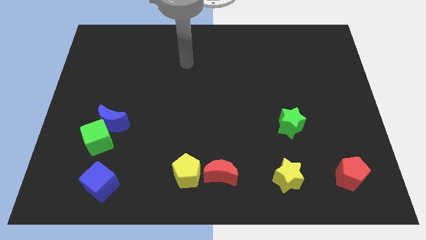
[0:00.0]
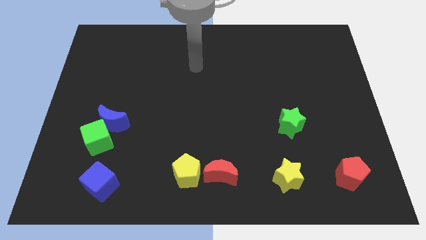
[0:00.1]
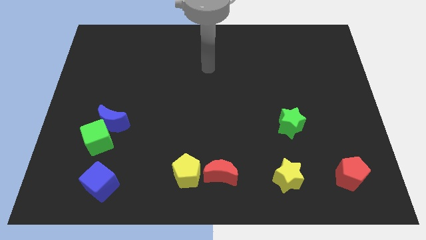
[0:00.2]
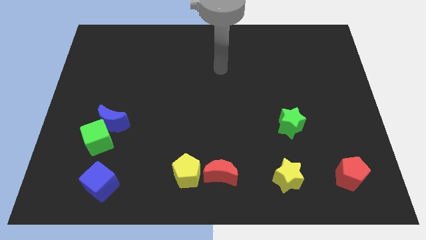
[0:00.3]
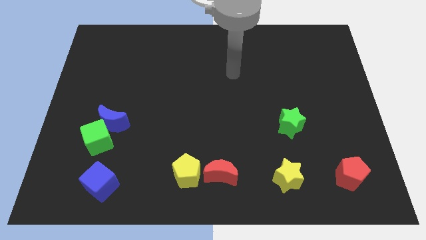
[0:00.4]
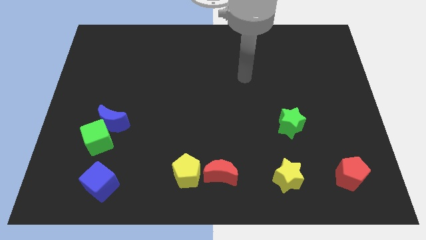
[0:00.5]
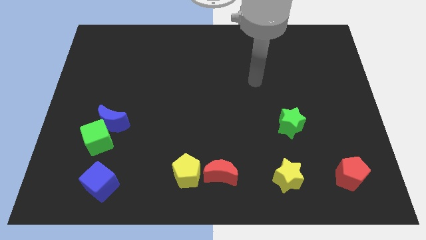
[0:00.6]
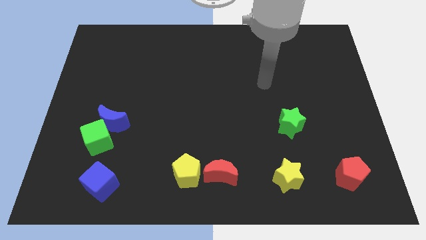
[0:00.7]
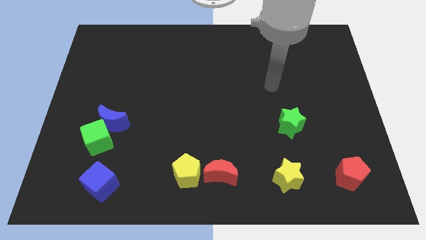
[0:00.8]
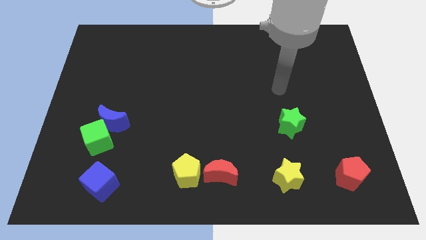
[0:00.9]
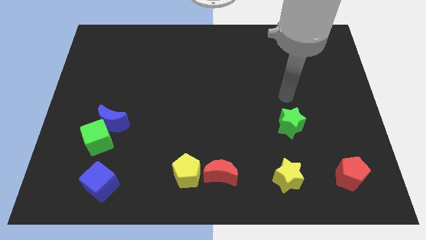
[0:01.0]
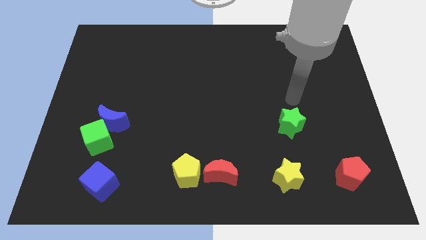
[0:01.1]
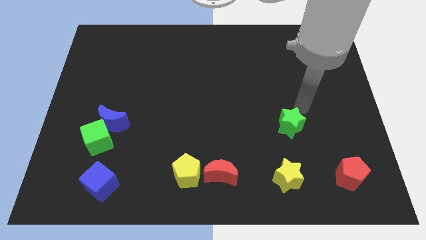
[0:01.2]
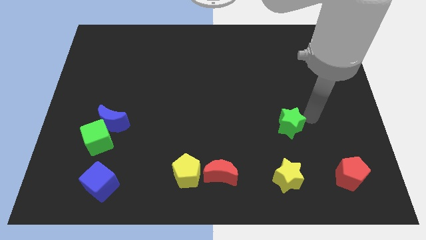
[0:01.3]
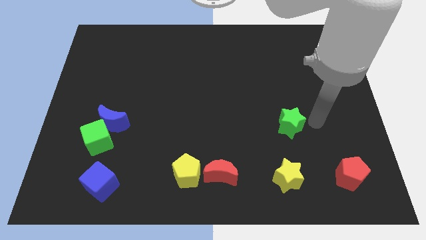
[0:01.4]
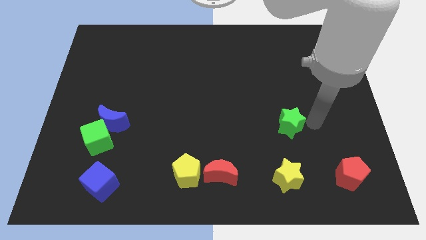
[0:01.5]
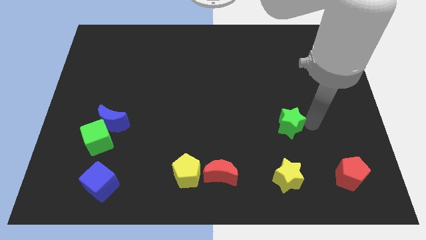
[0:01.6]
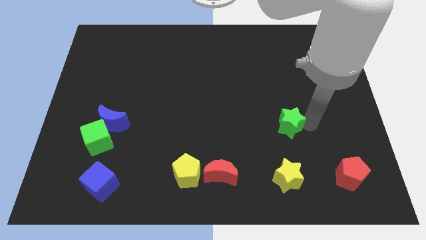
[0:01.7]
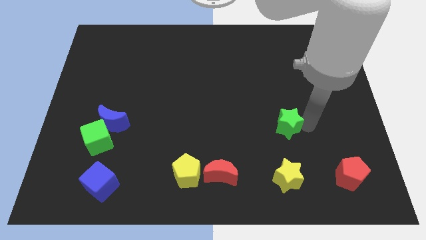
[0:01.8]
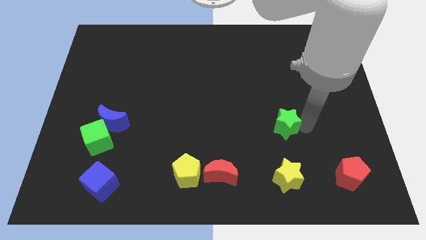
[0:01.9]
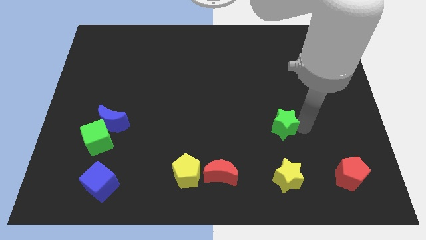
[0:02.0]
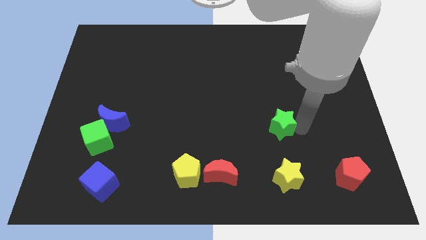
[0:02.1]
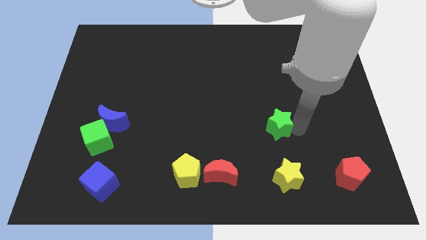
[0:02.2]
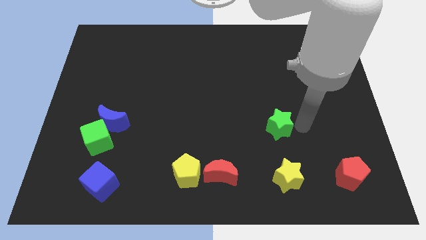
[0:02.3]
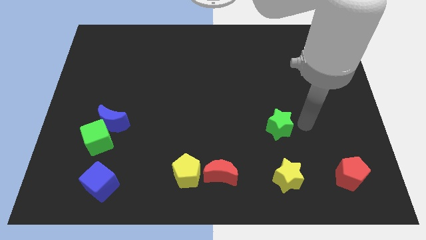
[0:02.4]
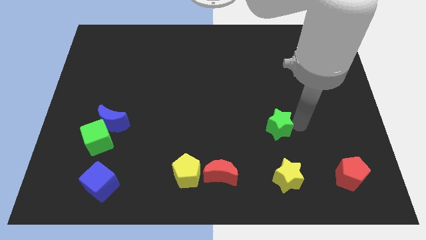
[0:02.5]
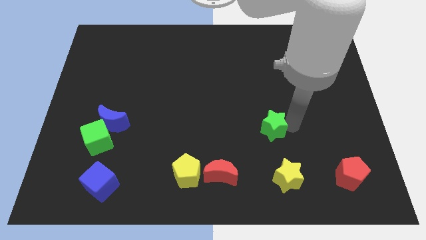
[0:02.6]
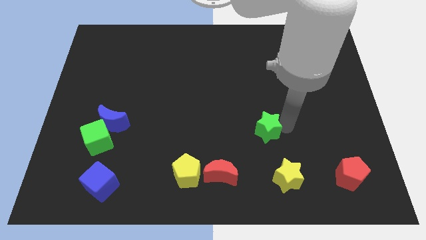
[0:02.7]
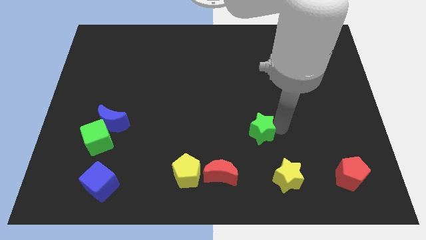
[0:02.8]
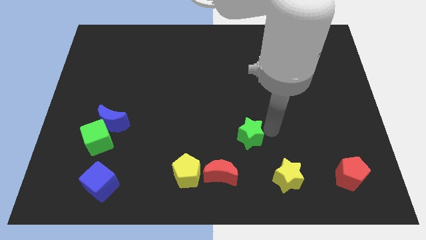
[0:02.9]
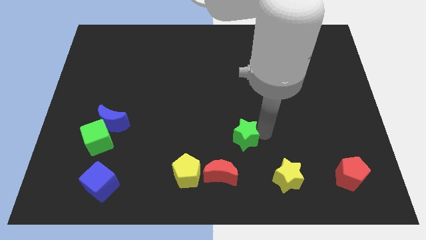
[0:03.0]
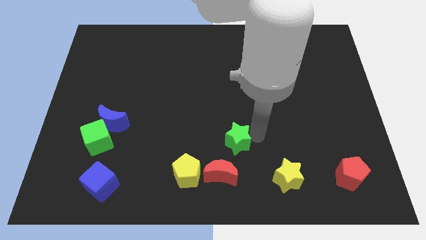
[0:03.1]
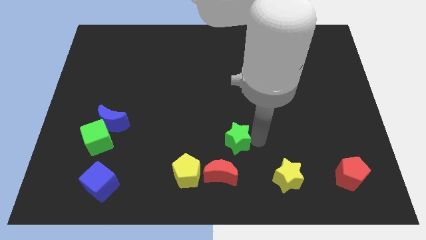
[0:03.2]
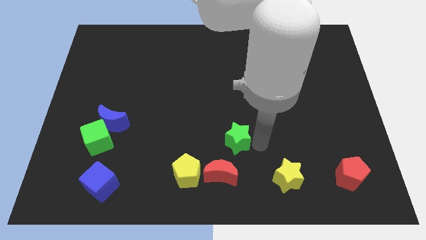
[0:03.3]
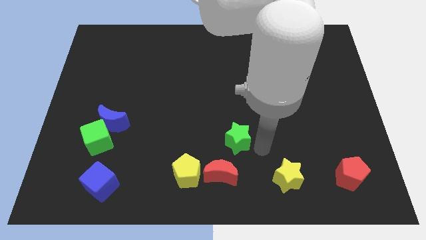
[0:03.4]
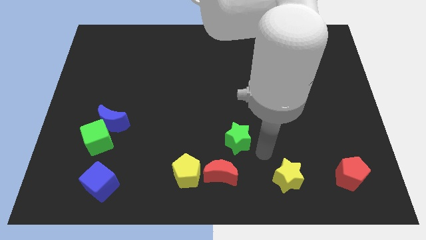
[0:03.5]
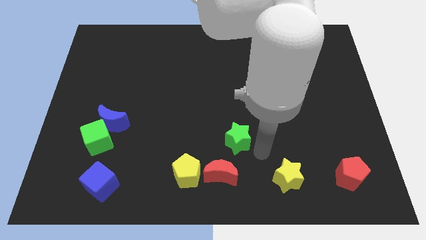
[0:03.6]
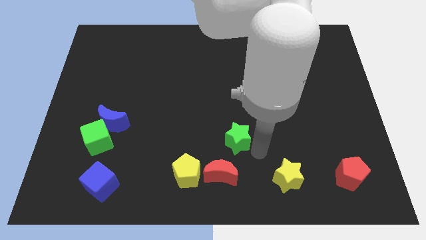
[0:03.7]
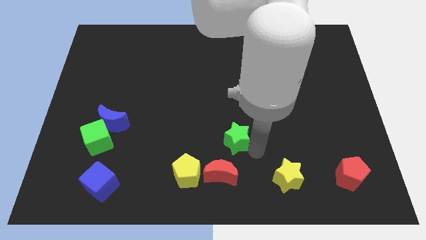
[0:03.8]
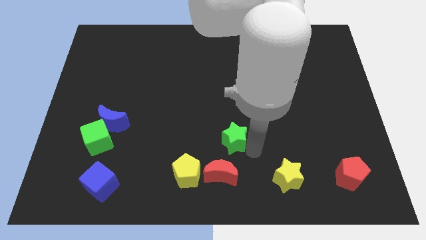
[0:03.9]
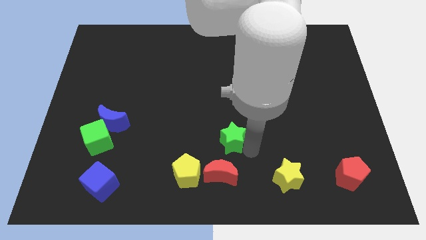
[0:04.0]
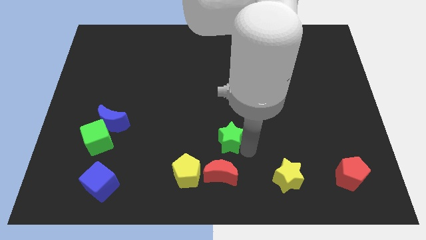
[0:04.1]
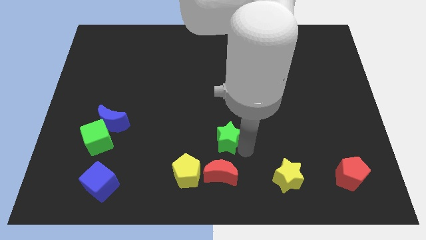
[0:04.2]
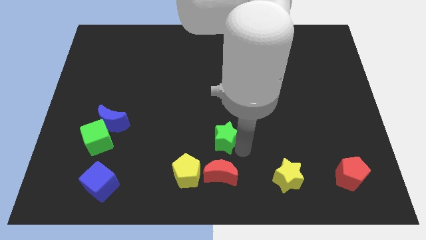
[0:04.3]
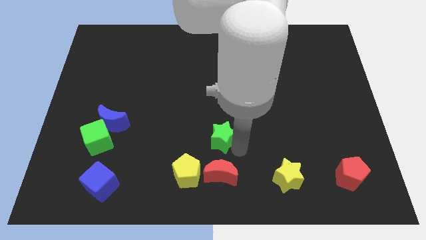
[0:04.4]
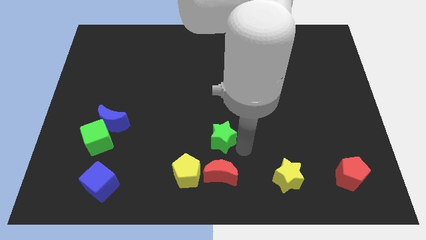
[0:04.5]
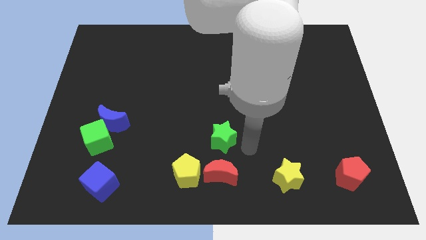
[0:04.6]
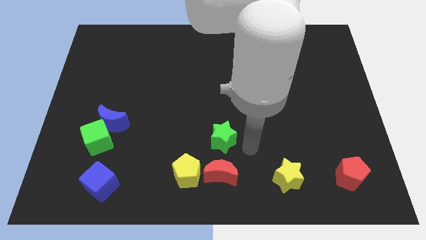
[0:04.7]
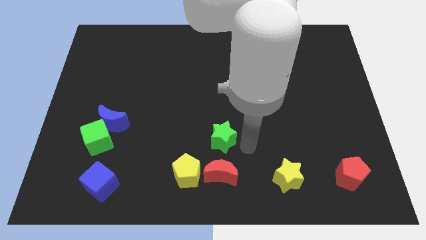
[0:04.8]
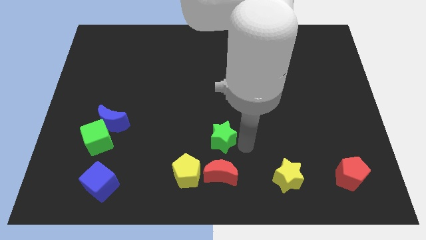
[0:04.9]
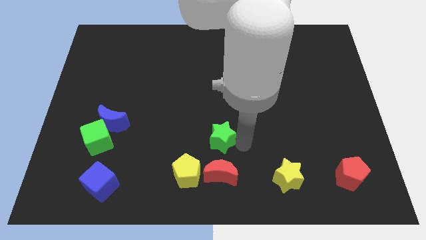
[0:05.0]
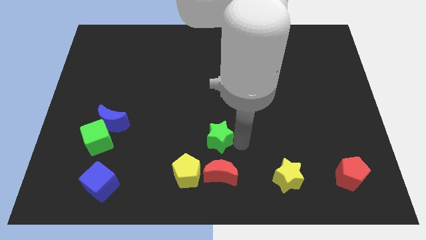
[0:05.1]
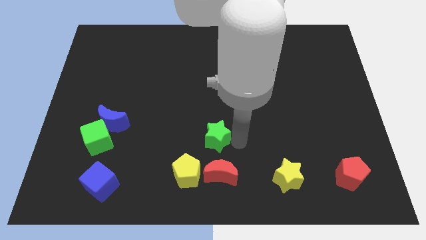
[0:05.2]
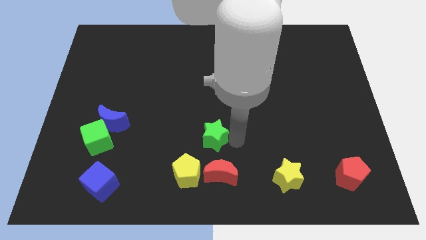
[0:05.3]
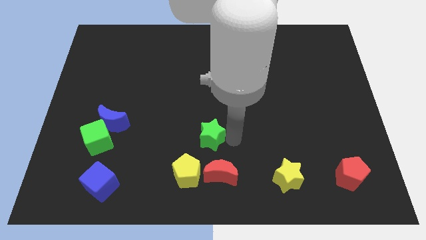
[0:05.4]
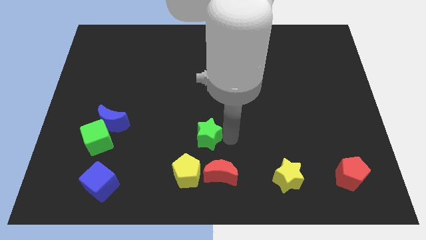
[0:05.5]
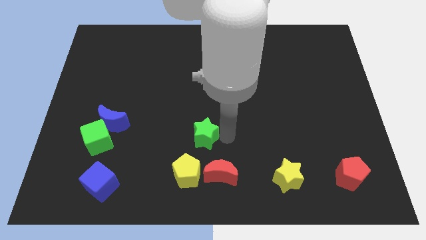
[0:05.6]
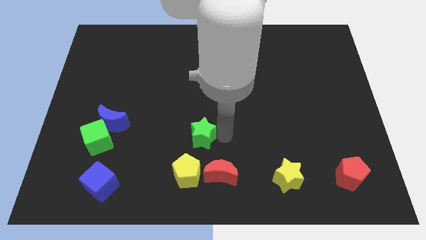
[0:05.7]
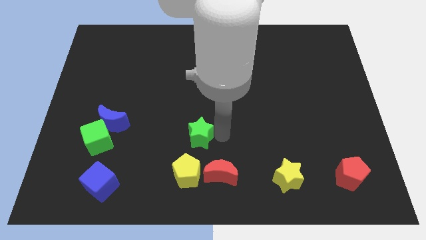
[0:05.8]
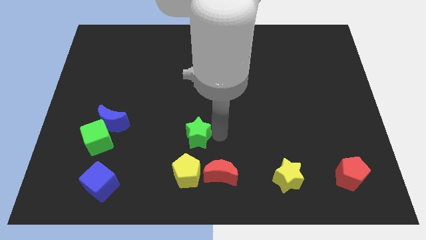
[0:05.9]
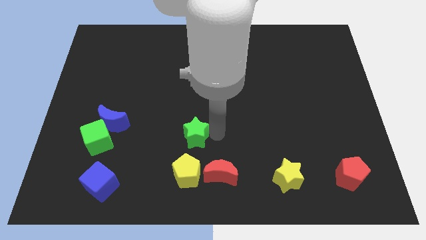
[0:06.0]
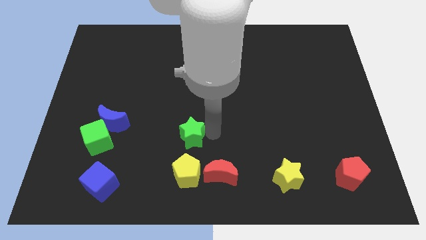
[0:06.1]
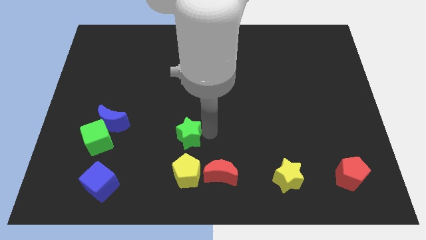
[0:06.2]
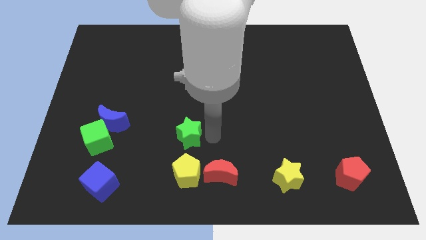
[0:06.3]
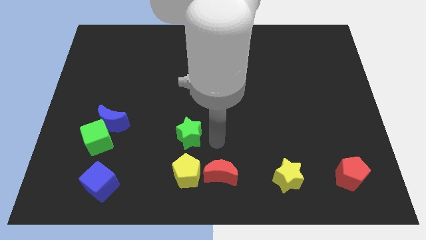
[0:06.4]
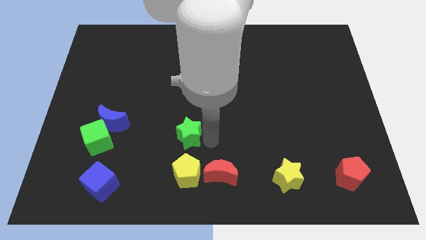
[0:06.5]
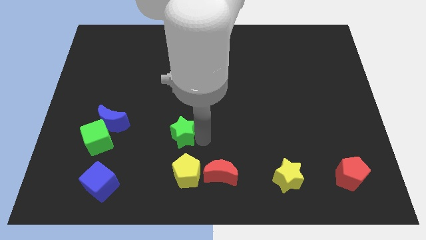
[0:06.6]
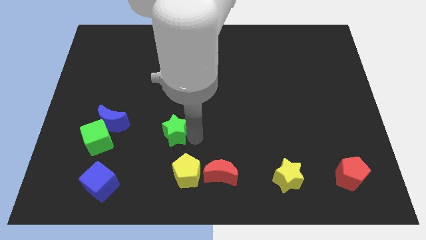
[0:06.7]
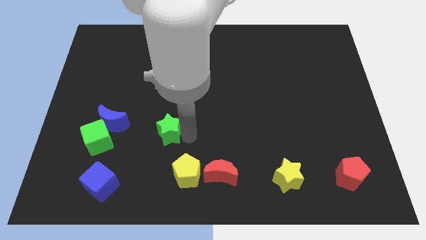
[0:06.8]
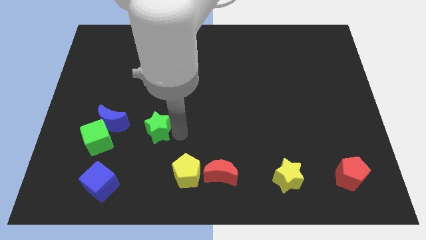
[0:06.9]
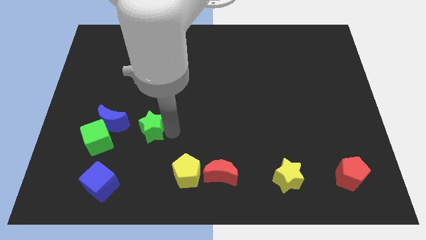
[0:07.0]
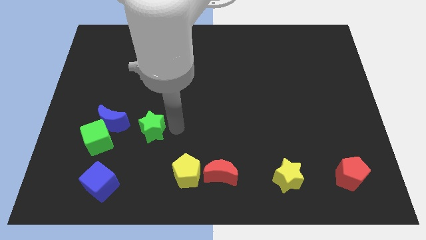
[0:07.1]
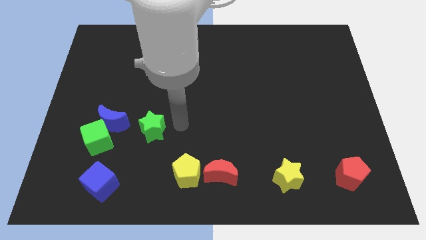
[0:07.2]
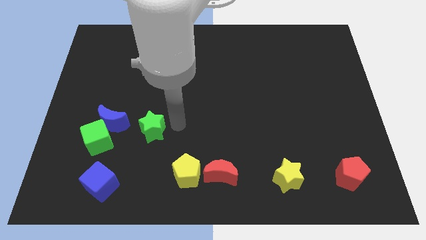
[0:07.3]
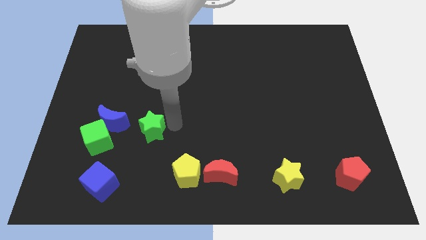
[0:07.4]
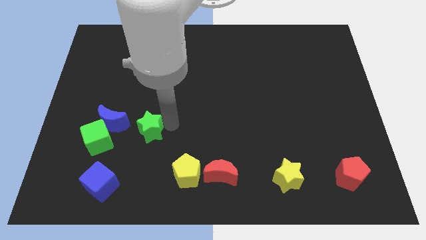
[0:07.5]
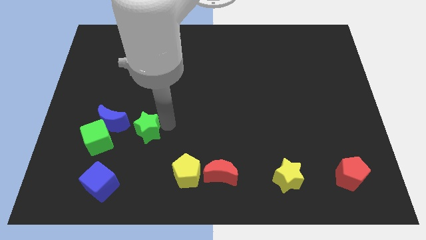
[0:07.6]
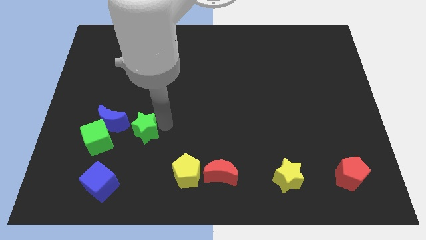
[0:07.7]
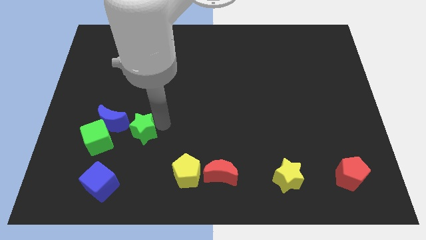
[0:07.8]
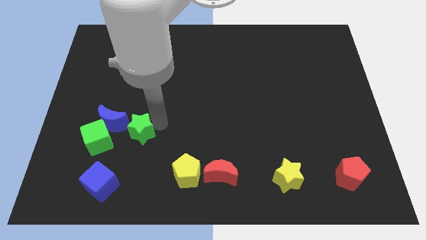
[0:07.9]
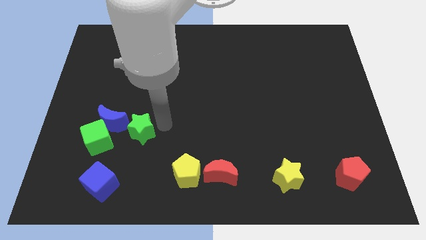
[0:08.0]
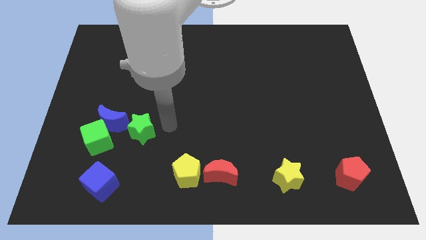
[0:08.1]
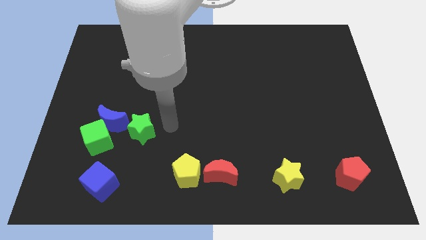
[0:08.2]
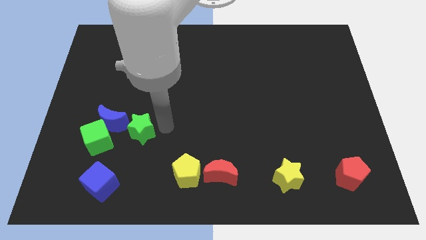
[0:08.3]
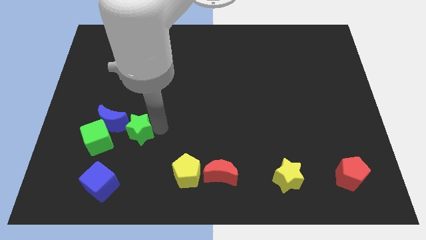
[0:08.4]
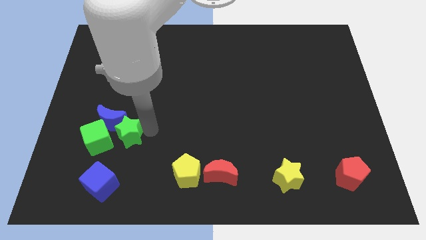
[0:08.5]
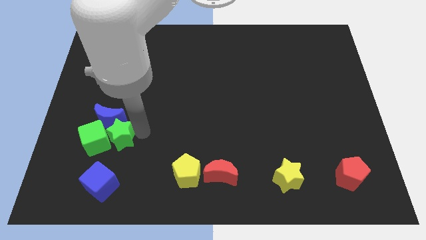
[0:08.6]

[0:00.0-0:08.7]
push the green star close to the green cube
